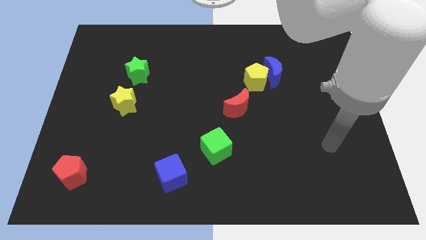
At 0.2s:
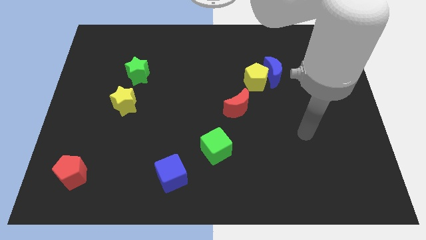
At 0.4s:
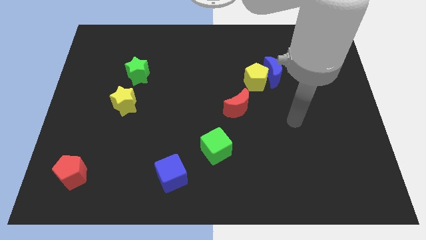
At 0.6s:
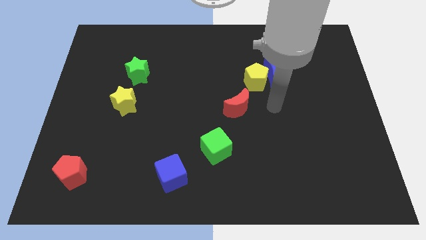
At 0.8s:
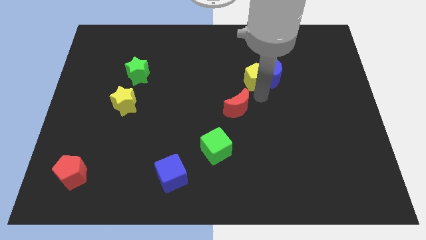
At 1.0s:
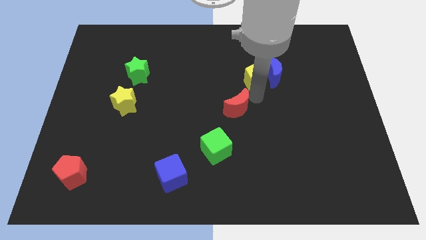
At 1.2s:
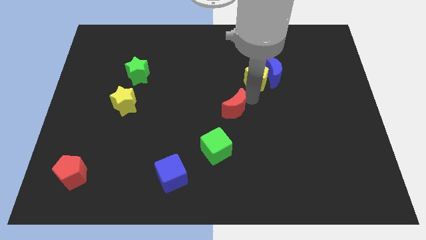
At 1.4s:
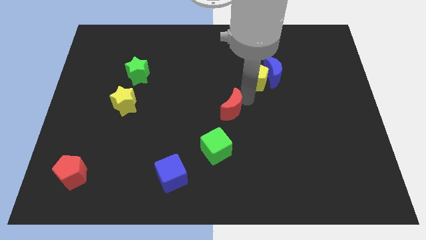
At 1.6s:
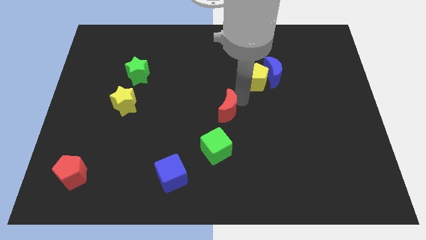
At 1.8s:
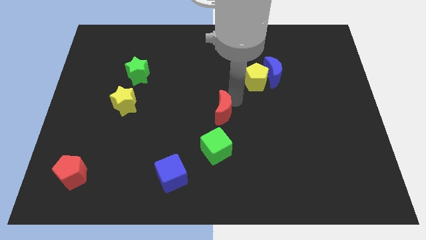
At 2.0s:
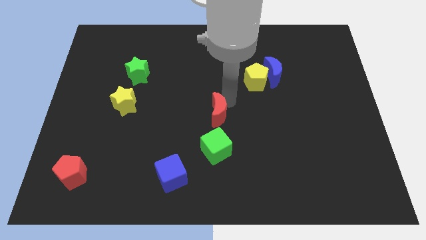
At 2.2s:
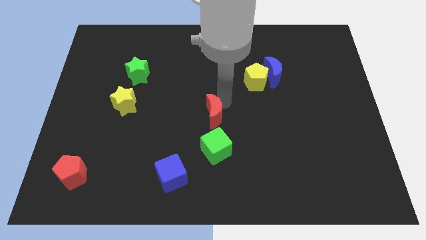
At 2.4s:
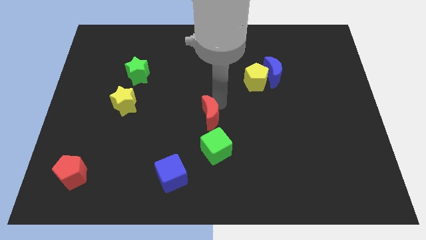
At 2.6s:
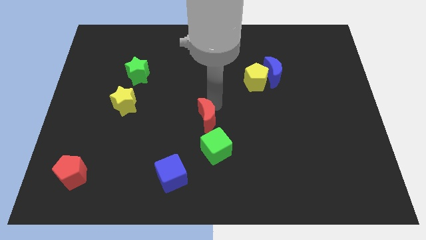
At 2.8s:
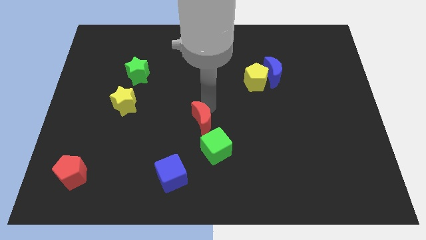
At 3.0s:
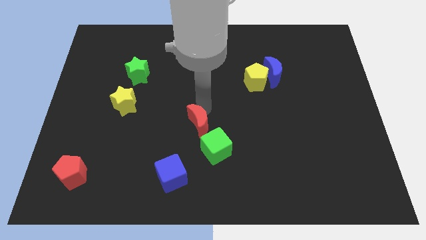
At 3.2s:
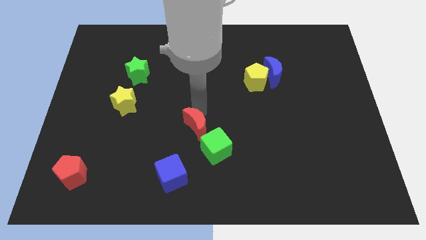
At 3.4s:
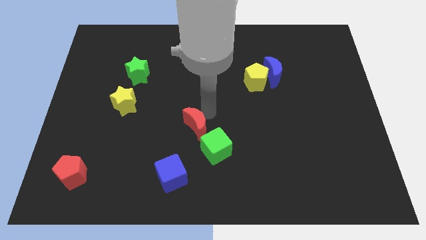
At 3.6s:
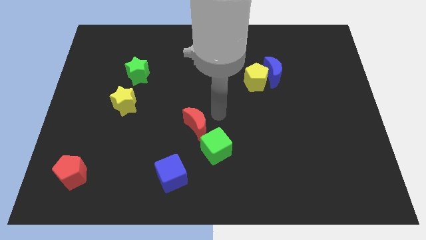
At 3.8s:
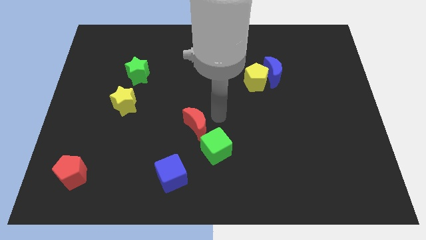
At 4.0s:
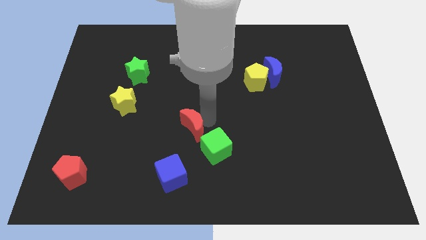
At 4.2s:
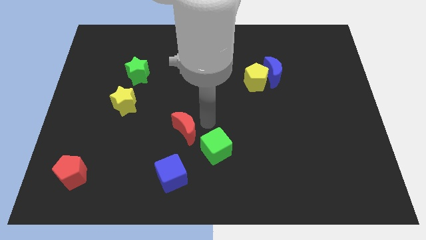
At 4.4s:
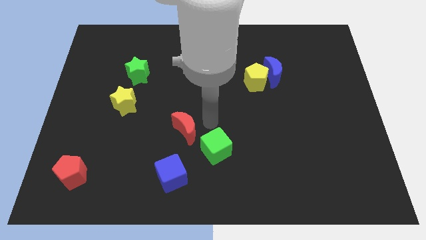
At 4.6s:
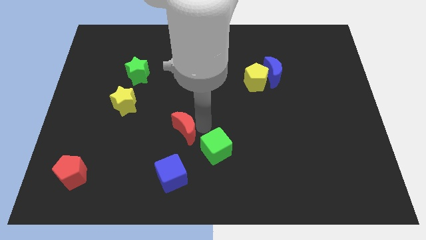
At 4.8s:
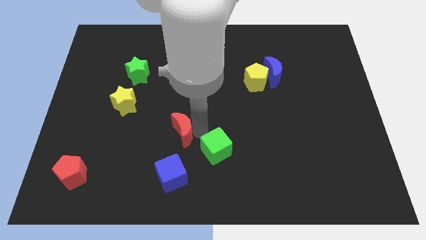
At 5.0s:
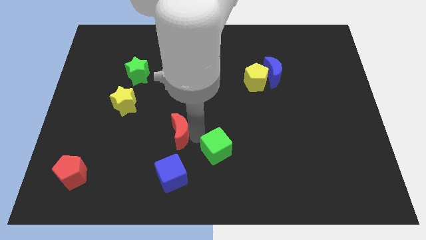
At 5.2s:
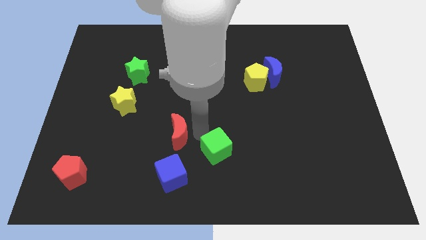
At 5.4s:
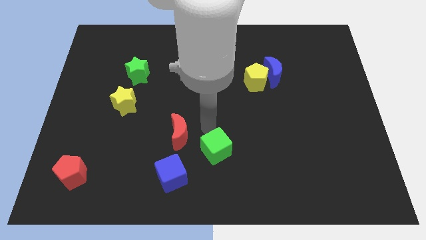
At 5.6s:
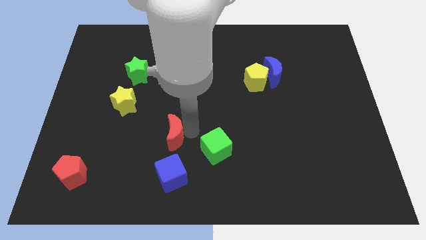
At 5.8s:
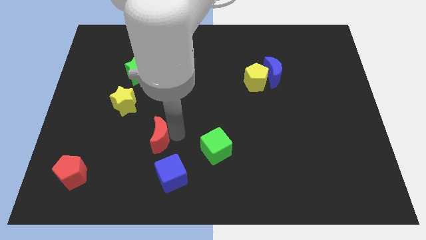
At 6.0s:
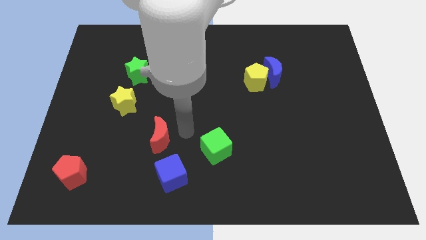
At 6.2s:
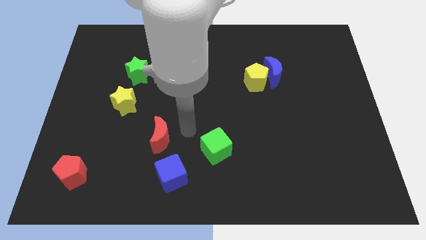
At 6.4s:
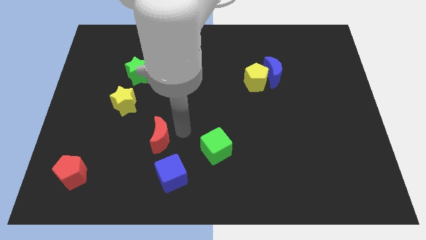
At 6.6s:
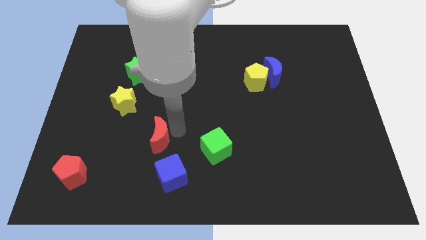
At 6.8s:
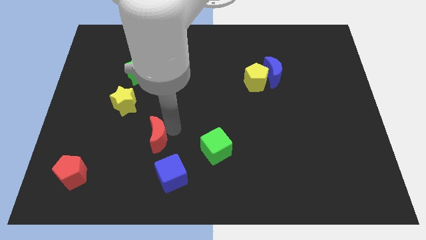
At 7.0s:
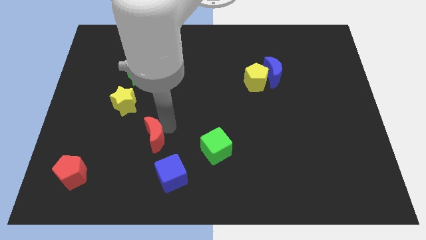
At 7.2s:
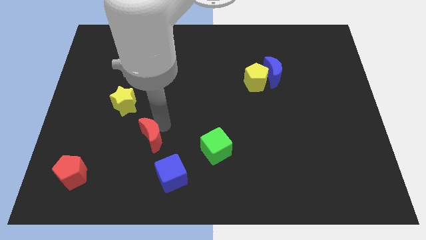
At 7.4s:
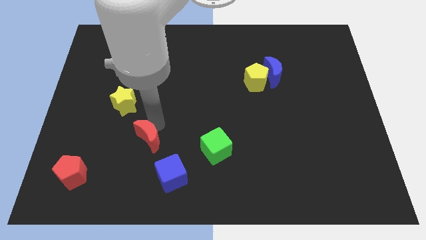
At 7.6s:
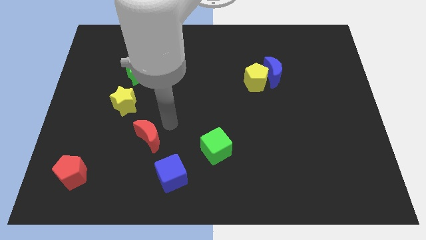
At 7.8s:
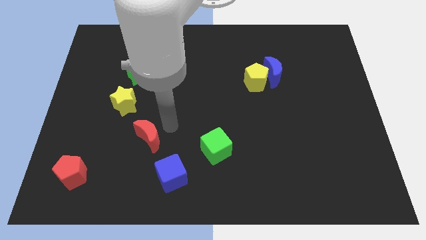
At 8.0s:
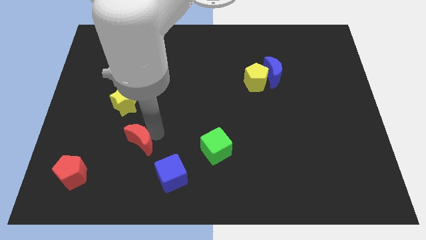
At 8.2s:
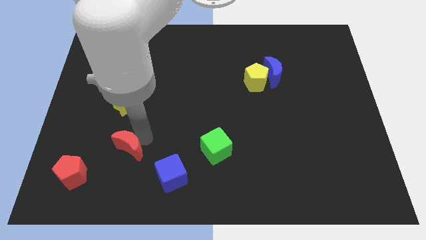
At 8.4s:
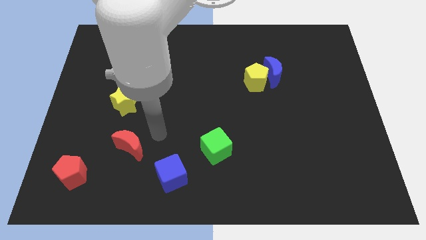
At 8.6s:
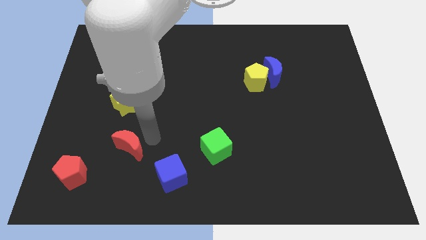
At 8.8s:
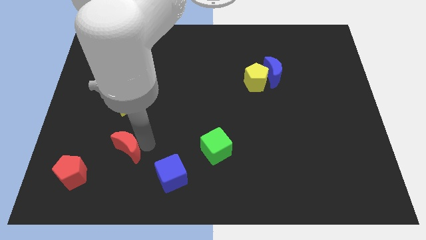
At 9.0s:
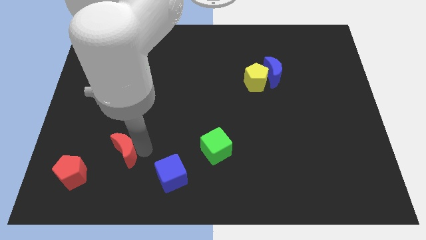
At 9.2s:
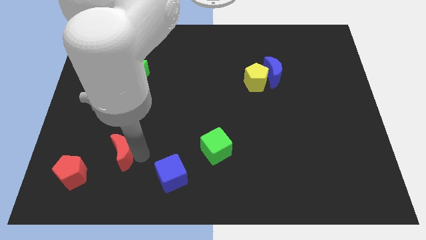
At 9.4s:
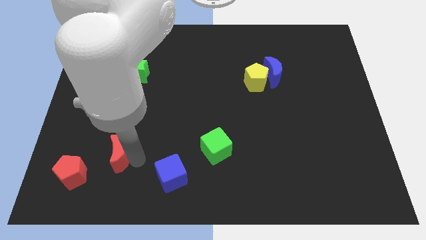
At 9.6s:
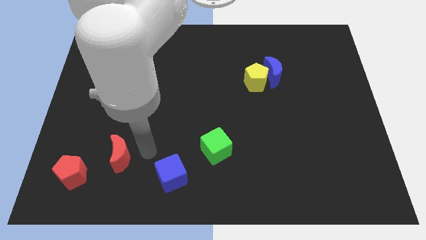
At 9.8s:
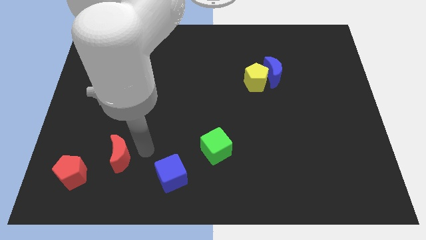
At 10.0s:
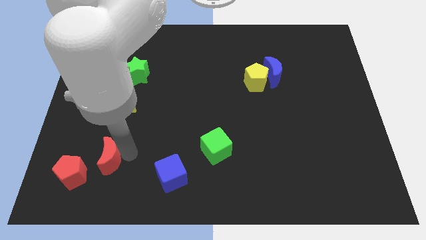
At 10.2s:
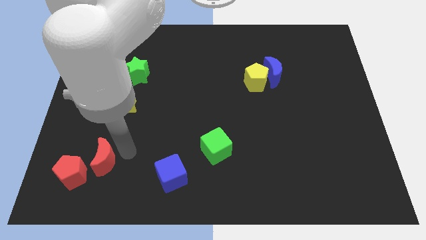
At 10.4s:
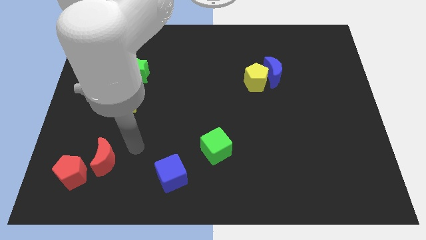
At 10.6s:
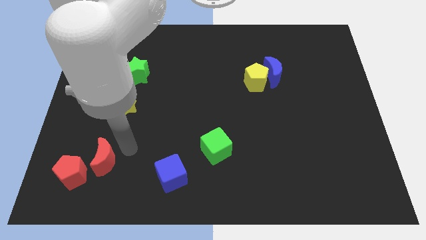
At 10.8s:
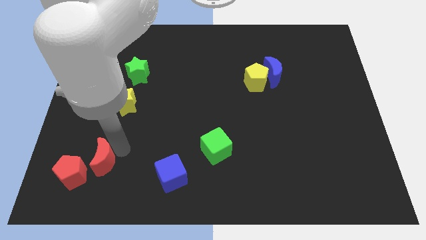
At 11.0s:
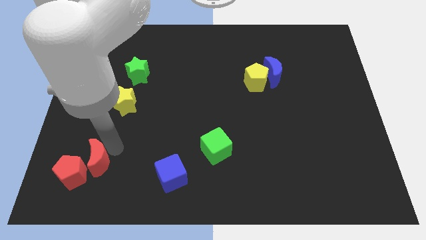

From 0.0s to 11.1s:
move the red moon next to the red pentagon

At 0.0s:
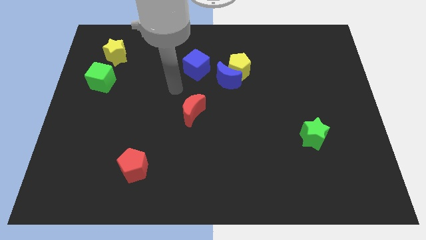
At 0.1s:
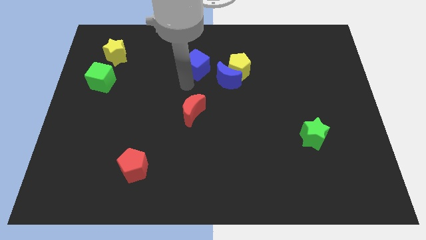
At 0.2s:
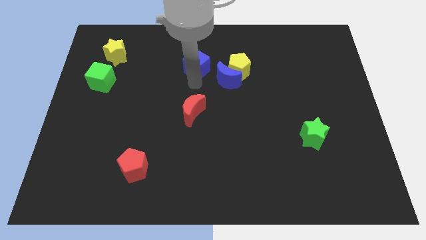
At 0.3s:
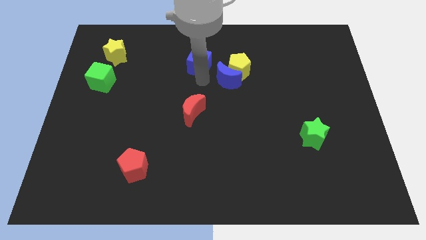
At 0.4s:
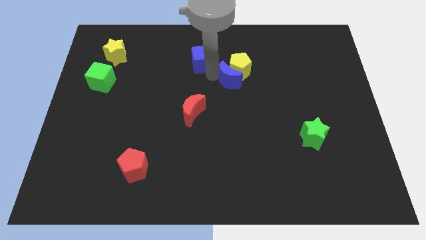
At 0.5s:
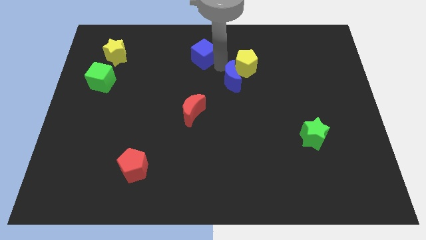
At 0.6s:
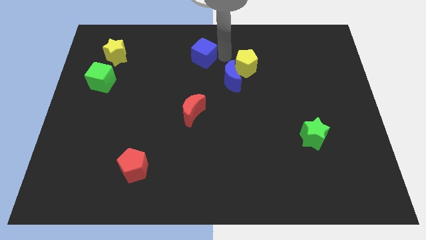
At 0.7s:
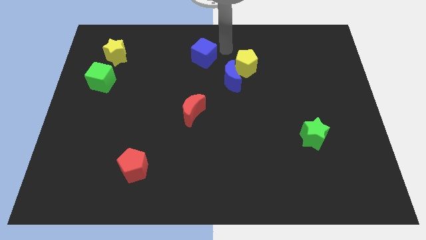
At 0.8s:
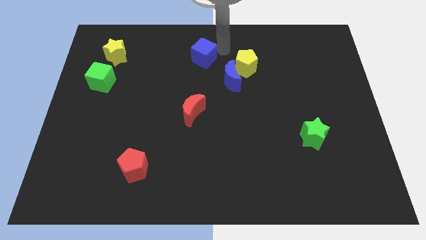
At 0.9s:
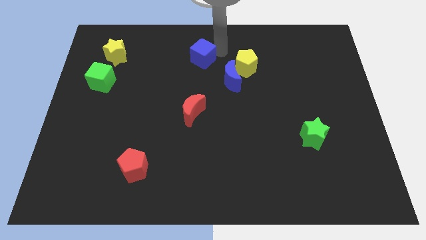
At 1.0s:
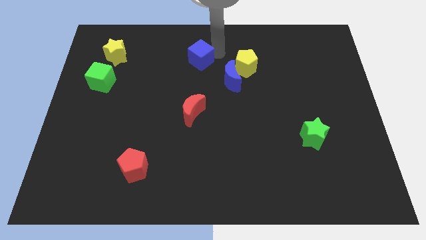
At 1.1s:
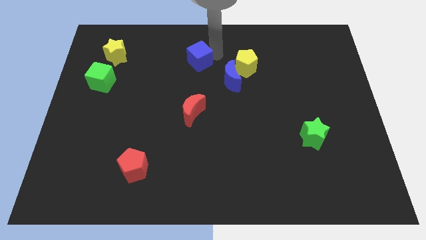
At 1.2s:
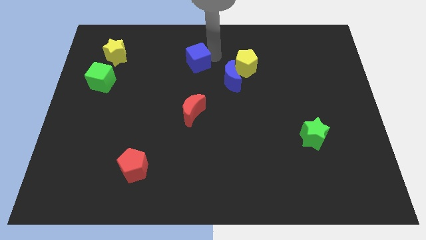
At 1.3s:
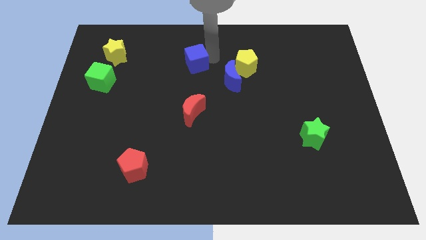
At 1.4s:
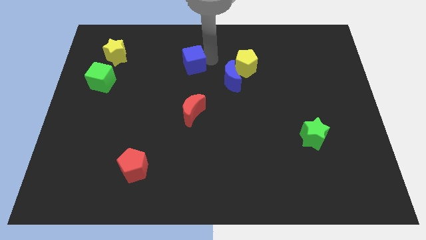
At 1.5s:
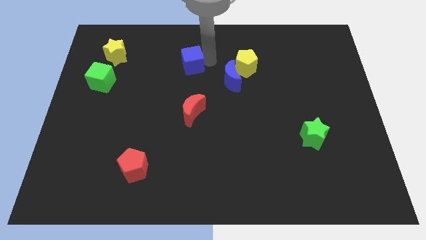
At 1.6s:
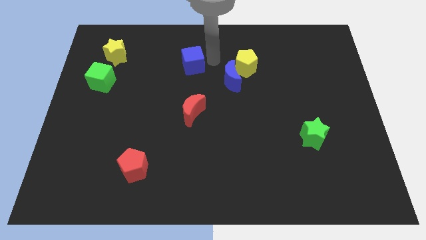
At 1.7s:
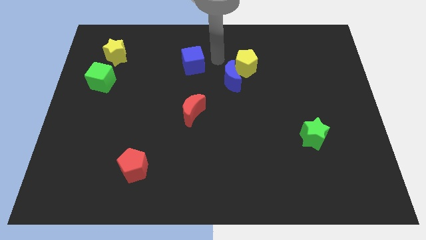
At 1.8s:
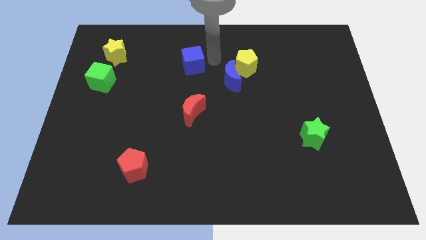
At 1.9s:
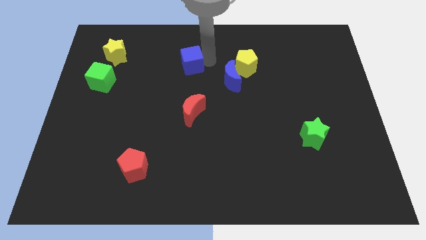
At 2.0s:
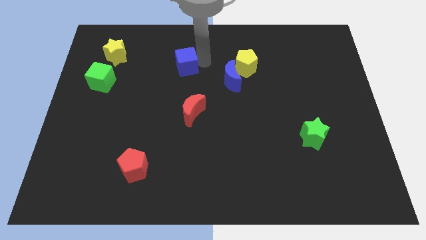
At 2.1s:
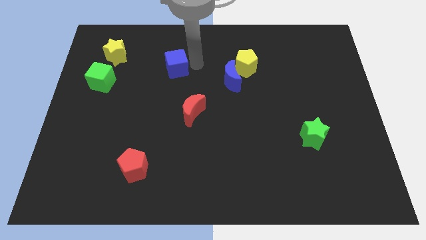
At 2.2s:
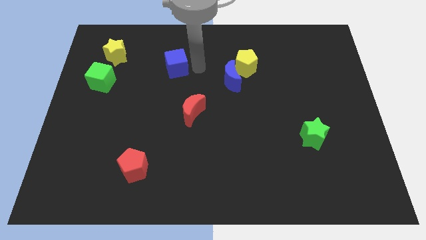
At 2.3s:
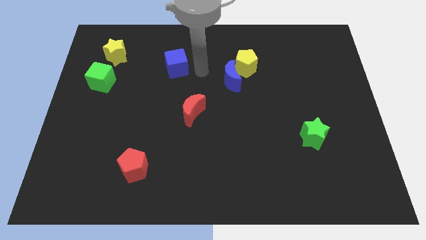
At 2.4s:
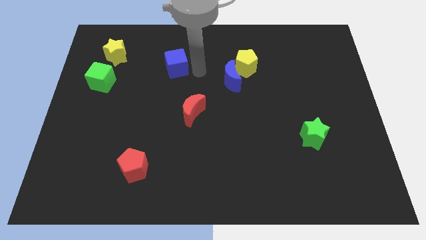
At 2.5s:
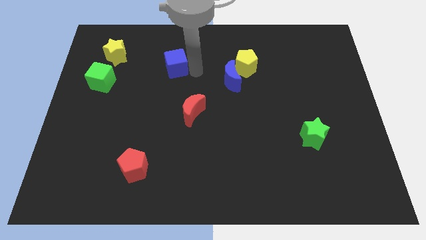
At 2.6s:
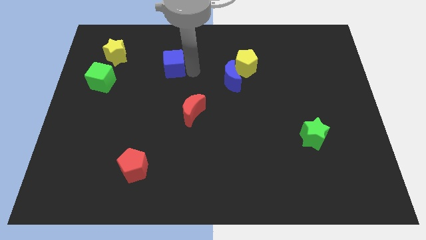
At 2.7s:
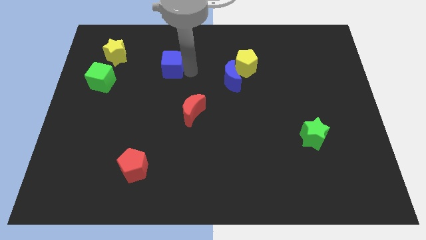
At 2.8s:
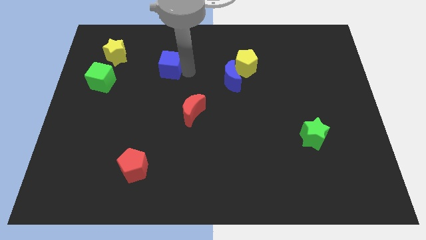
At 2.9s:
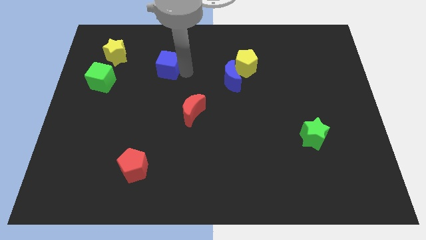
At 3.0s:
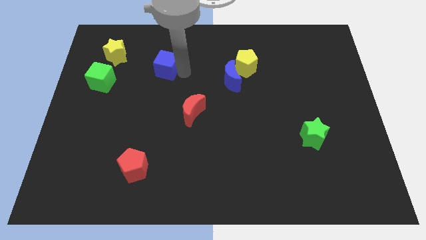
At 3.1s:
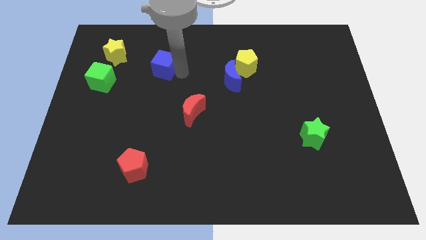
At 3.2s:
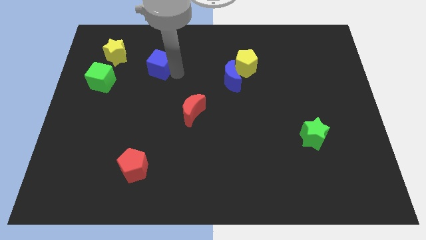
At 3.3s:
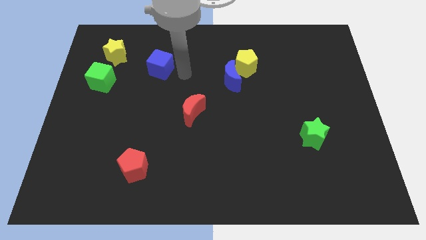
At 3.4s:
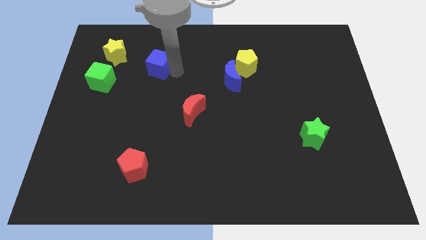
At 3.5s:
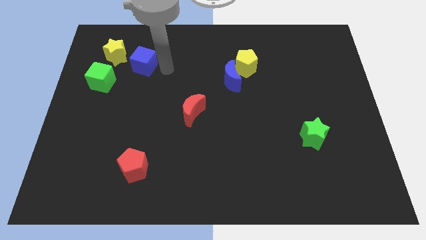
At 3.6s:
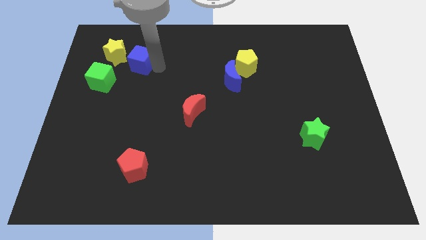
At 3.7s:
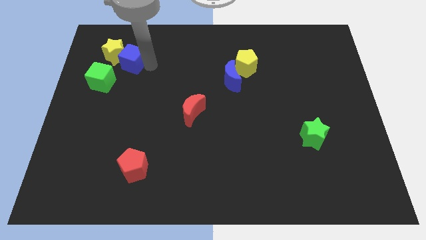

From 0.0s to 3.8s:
move the blue cube to the yellow star
